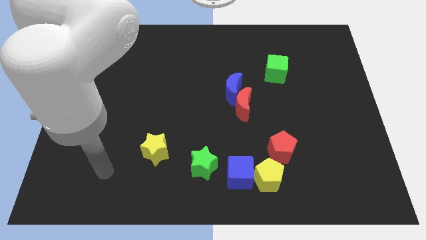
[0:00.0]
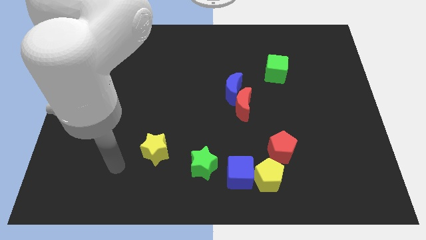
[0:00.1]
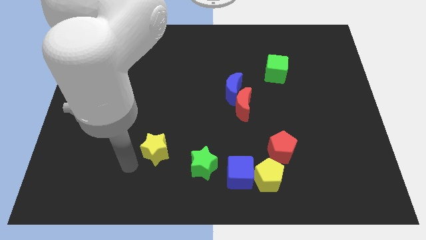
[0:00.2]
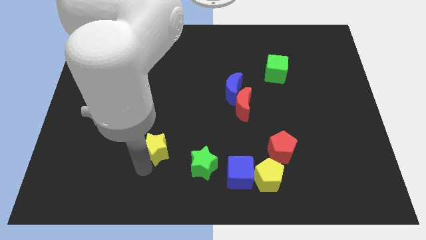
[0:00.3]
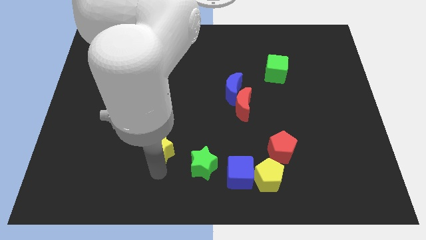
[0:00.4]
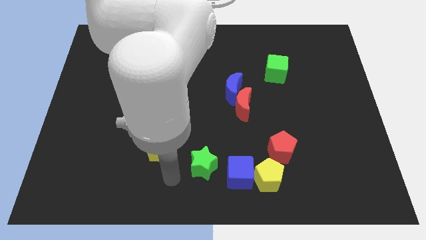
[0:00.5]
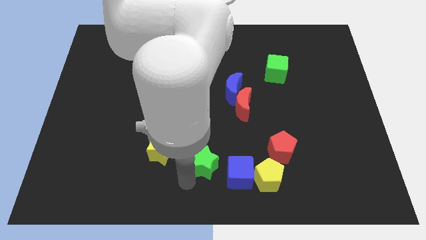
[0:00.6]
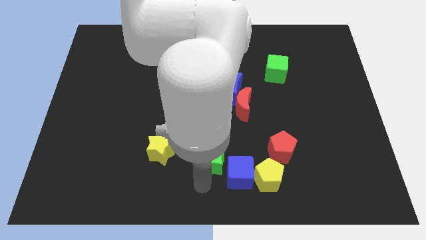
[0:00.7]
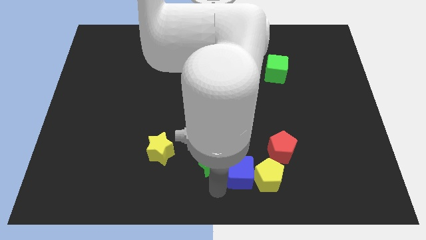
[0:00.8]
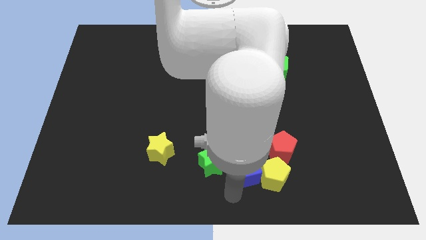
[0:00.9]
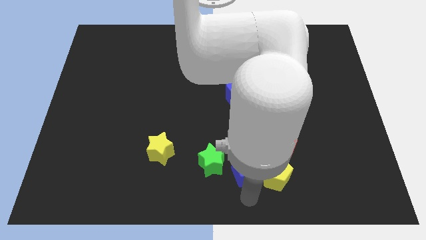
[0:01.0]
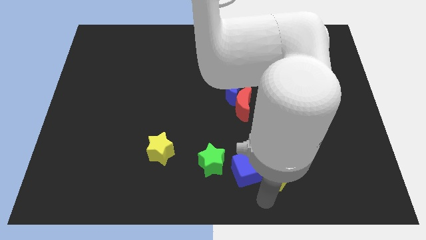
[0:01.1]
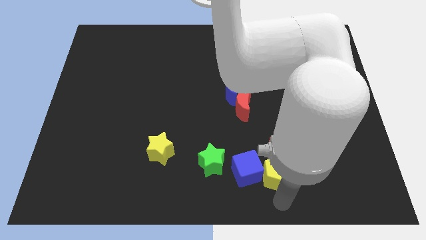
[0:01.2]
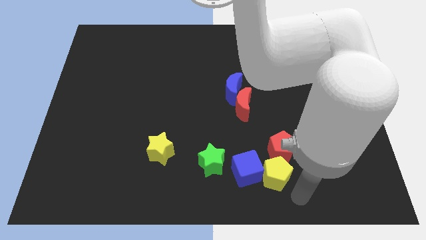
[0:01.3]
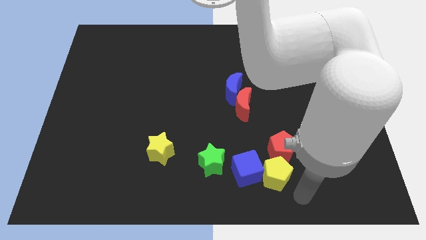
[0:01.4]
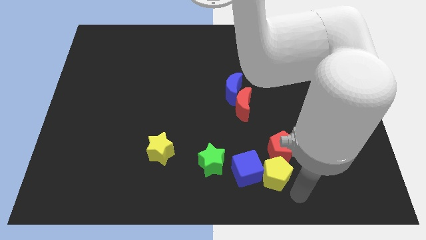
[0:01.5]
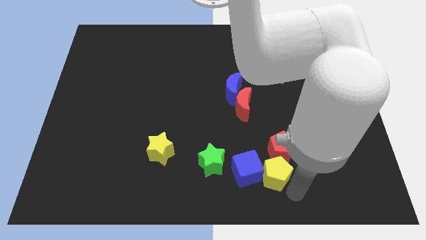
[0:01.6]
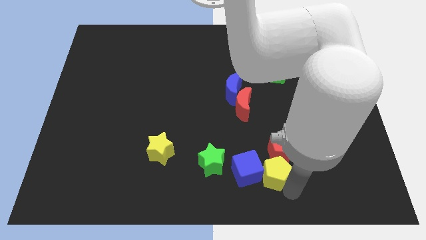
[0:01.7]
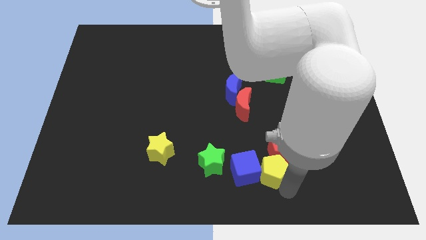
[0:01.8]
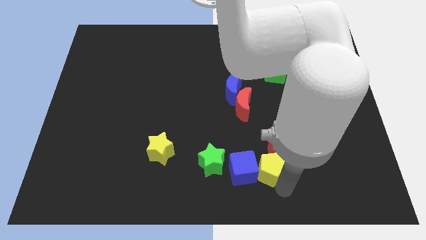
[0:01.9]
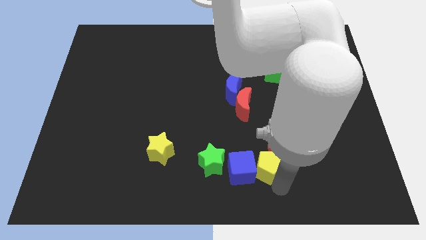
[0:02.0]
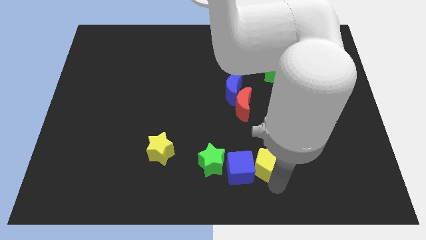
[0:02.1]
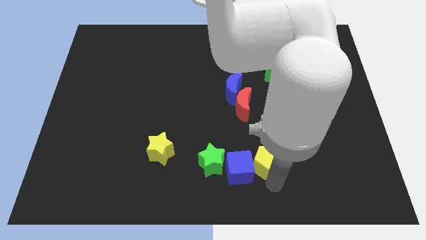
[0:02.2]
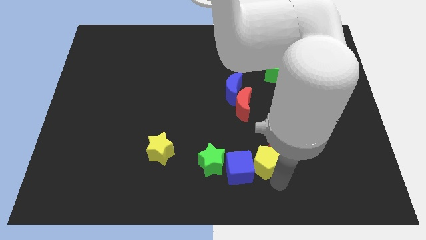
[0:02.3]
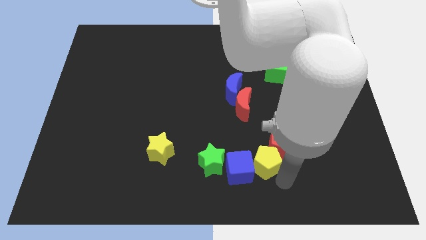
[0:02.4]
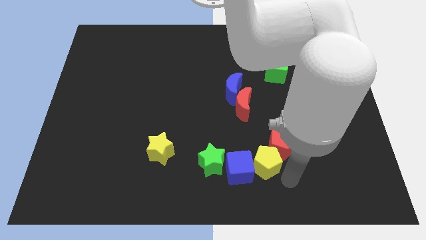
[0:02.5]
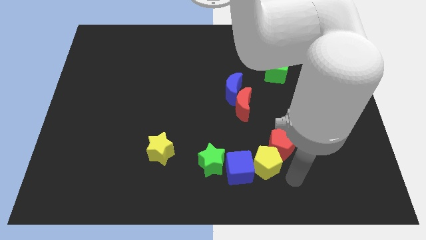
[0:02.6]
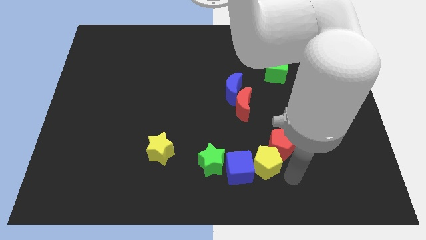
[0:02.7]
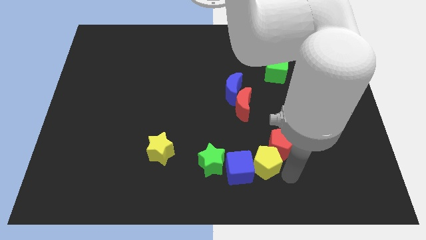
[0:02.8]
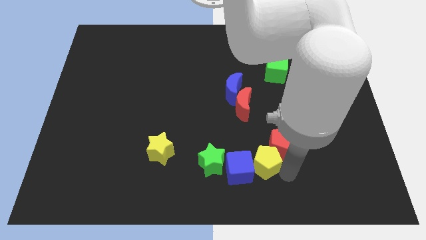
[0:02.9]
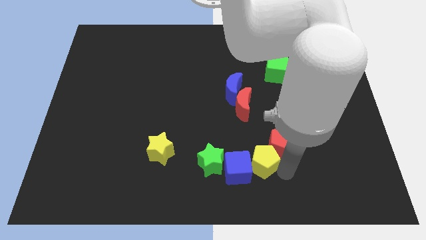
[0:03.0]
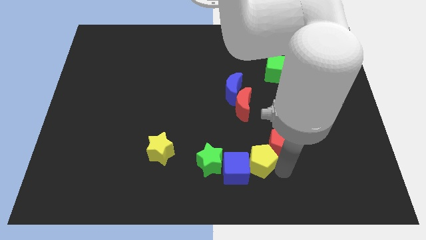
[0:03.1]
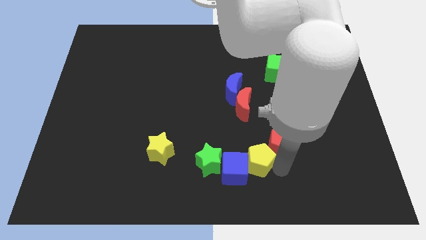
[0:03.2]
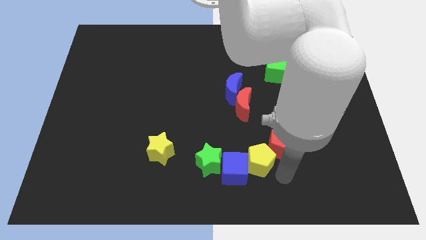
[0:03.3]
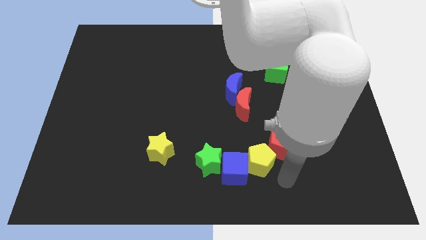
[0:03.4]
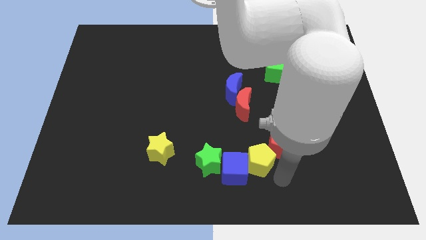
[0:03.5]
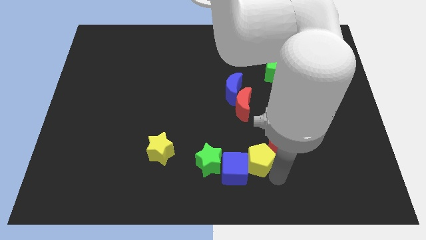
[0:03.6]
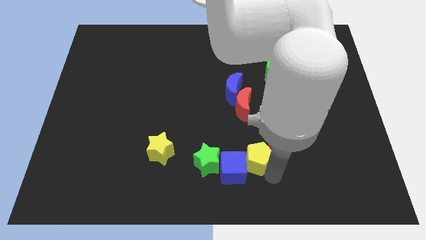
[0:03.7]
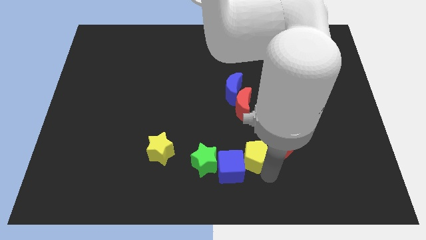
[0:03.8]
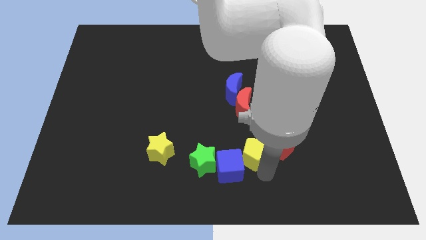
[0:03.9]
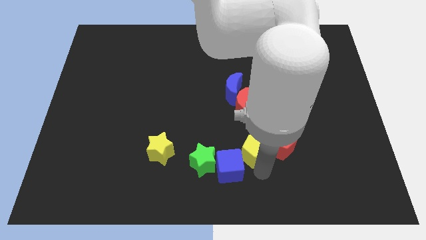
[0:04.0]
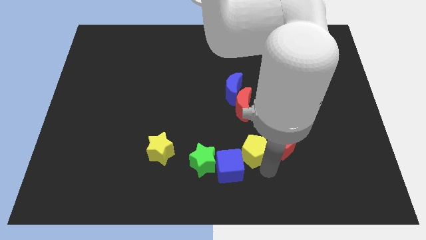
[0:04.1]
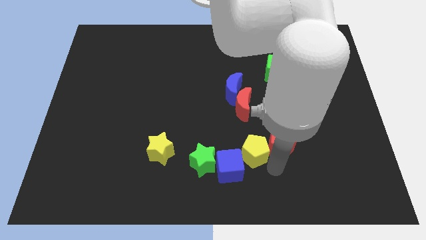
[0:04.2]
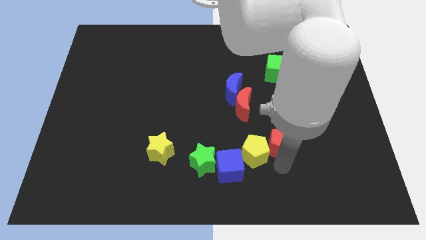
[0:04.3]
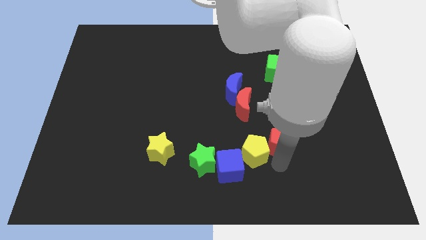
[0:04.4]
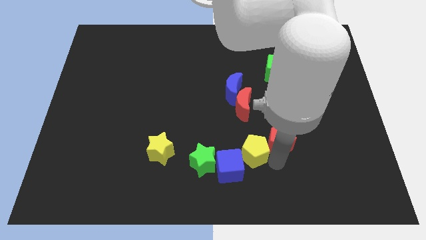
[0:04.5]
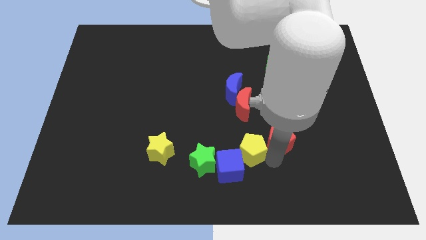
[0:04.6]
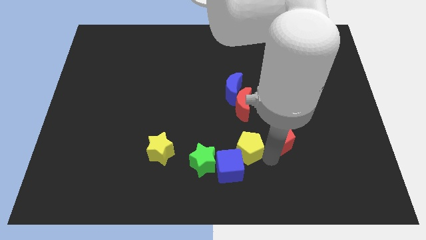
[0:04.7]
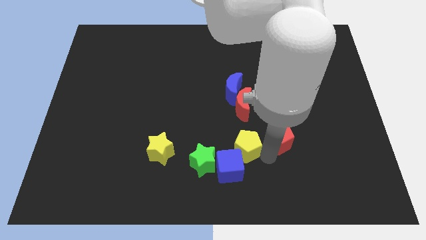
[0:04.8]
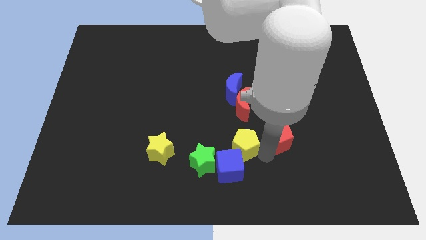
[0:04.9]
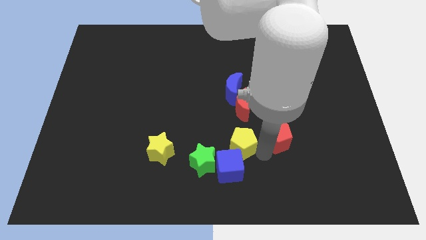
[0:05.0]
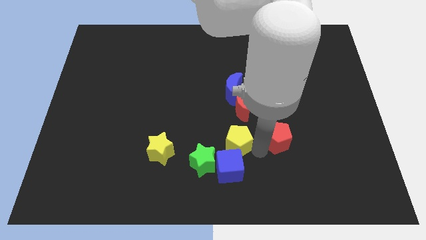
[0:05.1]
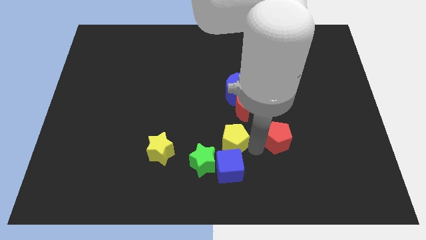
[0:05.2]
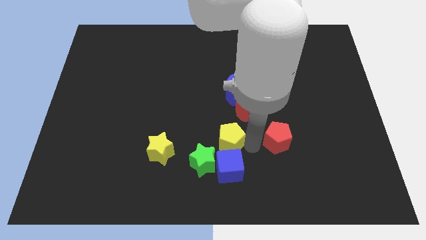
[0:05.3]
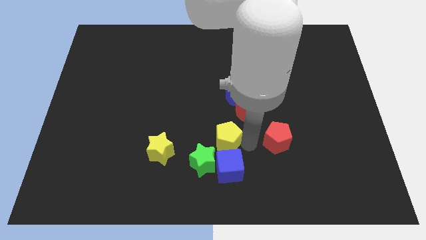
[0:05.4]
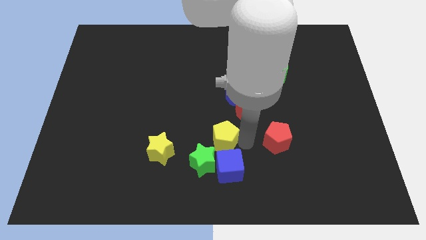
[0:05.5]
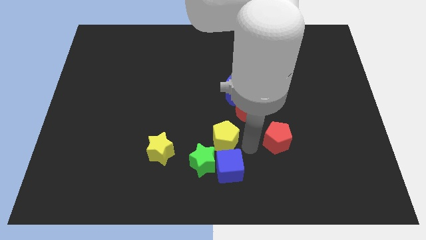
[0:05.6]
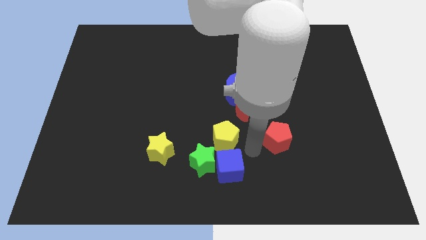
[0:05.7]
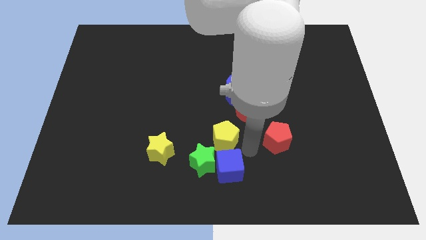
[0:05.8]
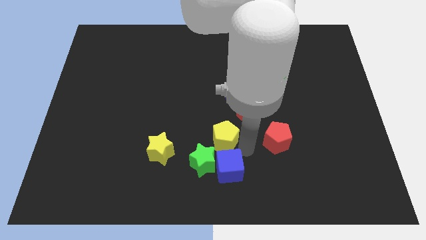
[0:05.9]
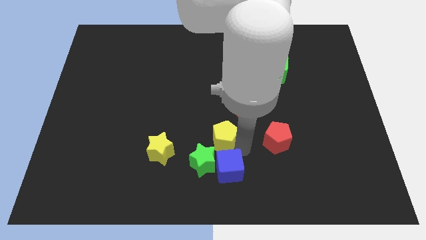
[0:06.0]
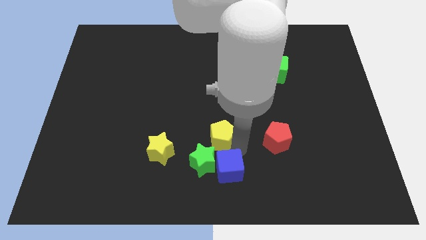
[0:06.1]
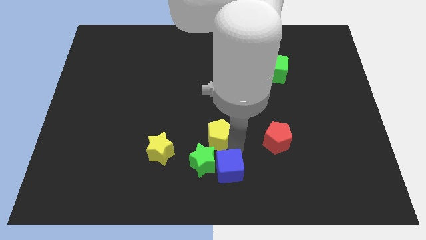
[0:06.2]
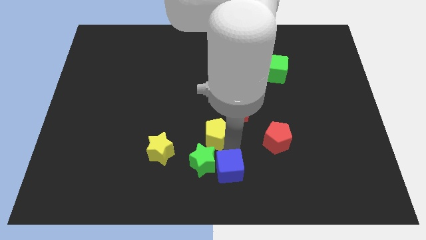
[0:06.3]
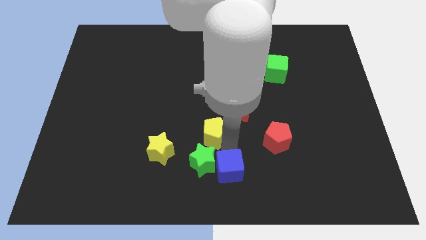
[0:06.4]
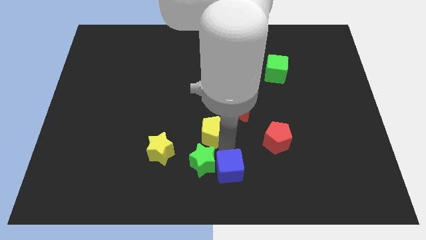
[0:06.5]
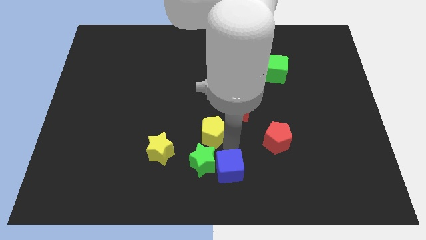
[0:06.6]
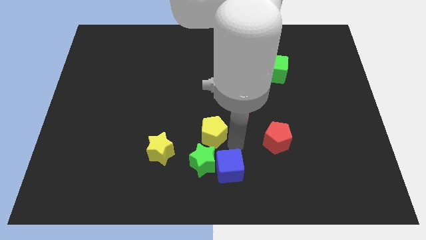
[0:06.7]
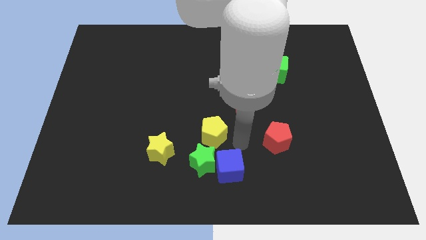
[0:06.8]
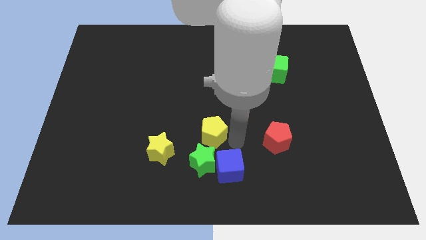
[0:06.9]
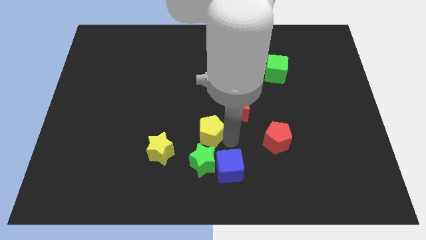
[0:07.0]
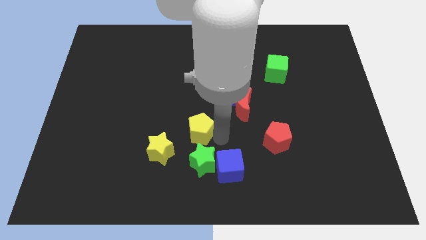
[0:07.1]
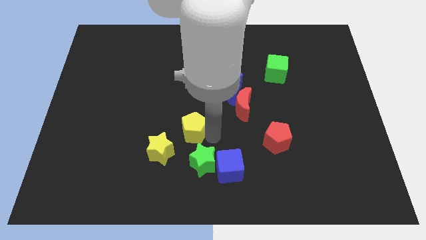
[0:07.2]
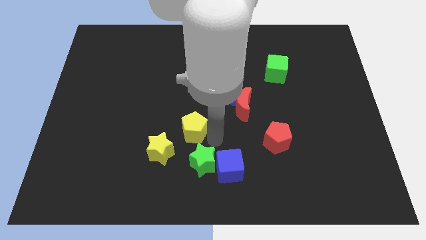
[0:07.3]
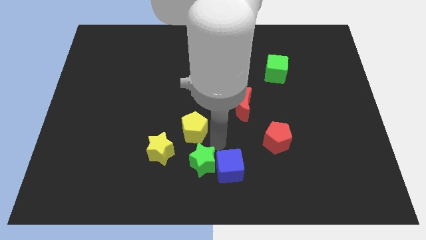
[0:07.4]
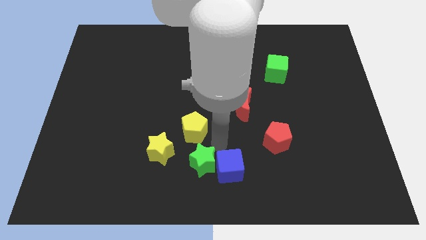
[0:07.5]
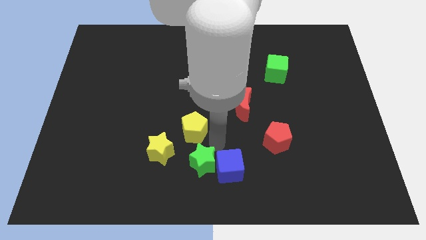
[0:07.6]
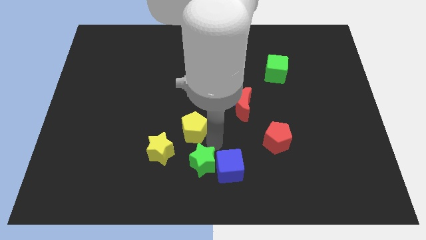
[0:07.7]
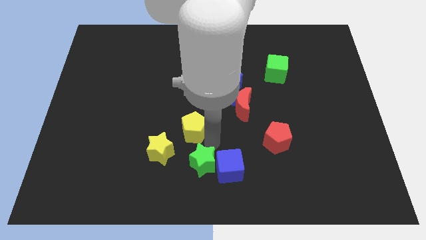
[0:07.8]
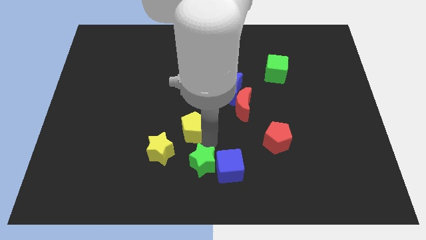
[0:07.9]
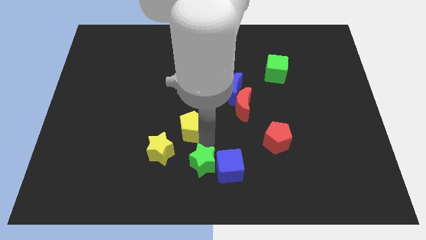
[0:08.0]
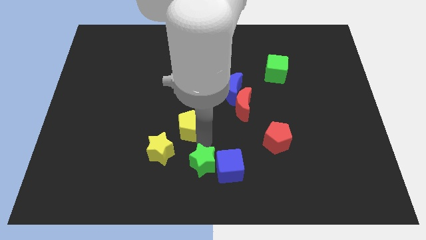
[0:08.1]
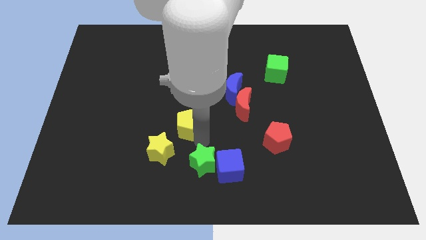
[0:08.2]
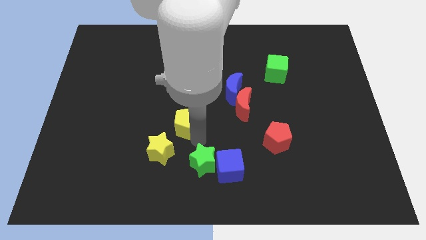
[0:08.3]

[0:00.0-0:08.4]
move the yellow pentagon to the top side of the yellow star
